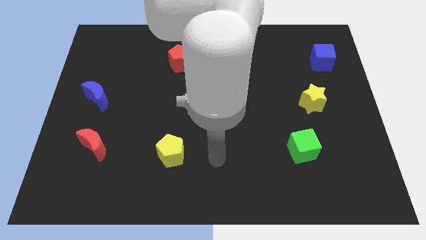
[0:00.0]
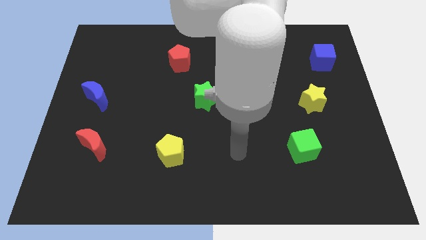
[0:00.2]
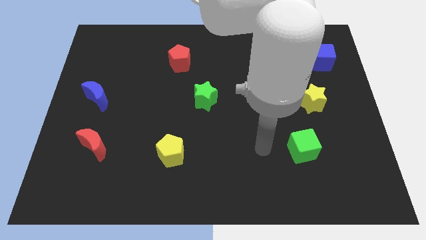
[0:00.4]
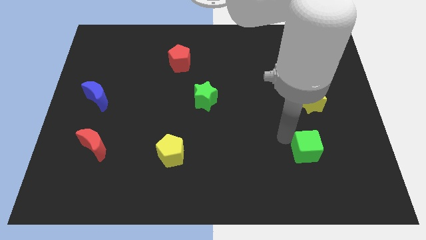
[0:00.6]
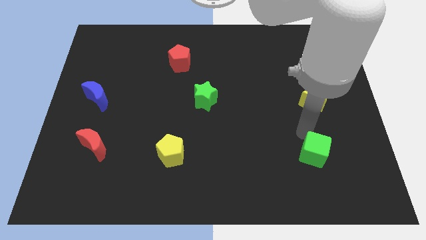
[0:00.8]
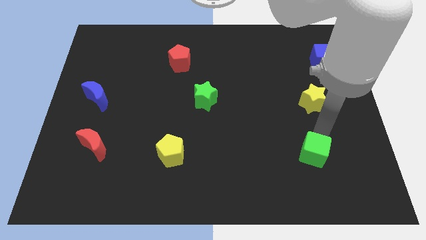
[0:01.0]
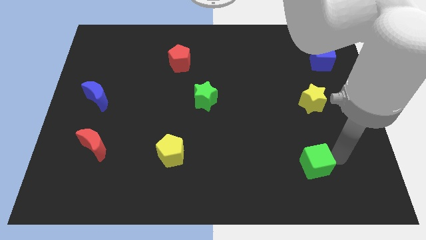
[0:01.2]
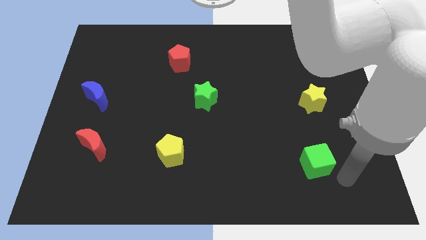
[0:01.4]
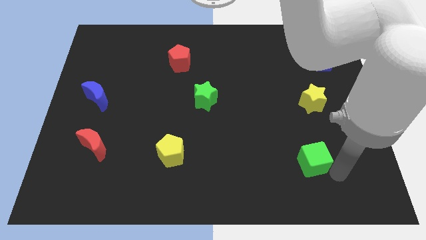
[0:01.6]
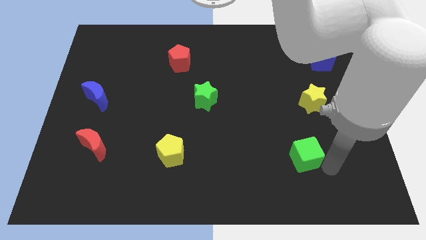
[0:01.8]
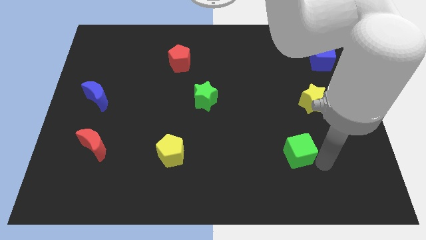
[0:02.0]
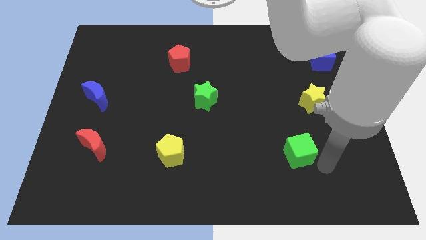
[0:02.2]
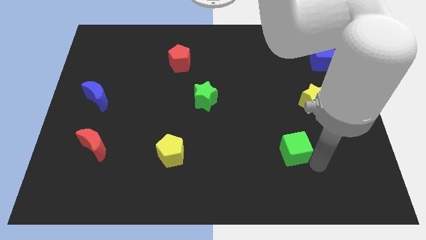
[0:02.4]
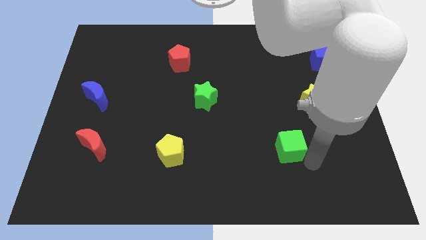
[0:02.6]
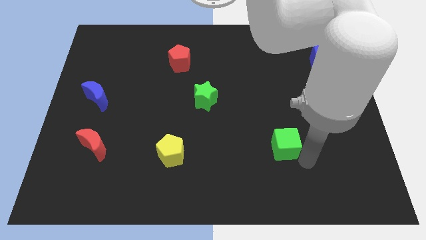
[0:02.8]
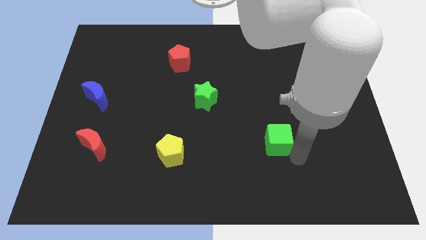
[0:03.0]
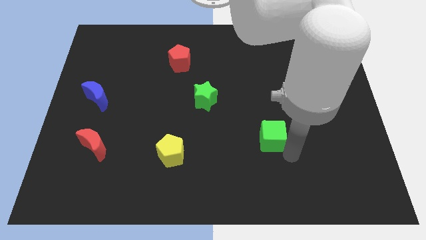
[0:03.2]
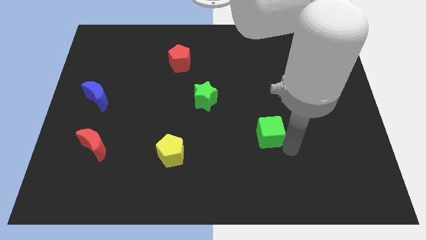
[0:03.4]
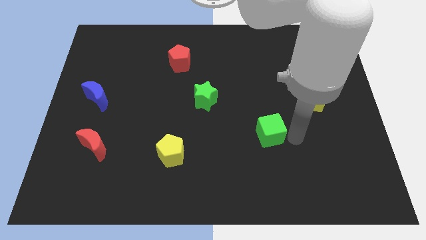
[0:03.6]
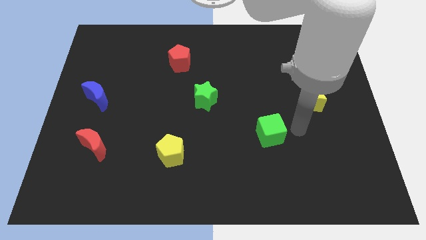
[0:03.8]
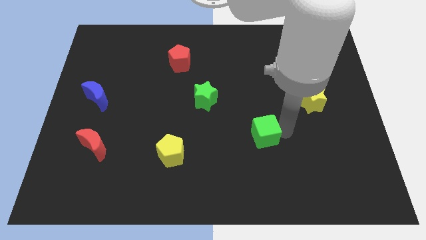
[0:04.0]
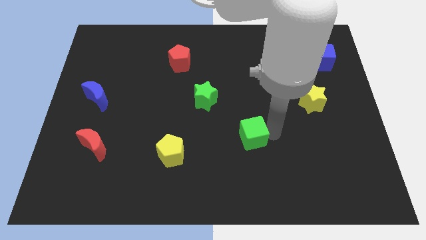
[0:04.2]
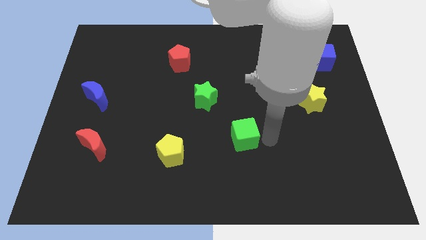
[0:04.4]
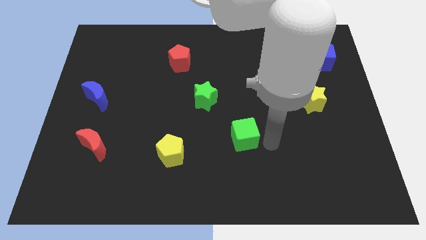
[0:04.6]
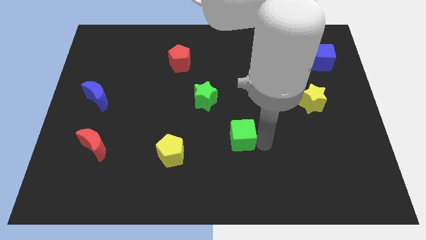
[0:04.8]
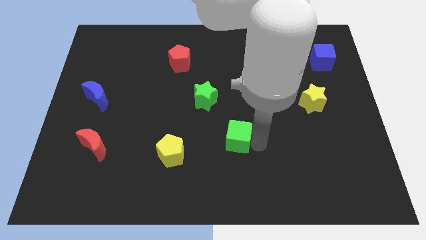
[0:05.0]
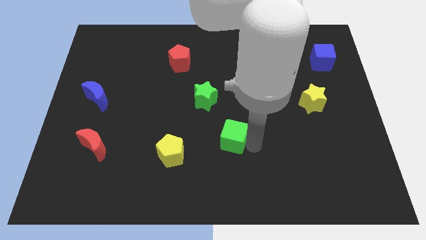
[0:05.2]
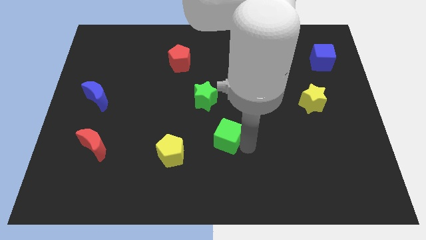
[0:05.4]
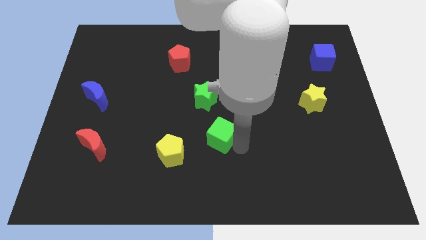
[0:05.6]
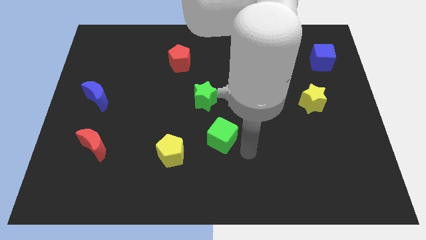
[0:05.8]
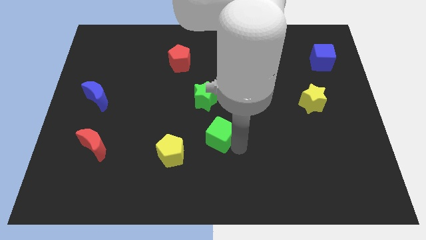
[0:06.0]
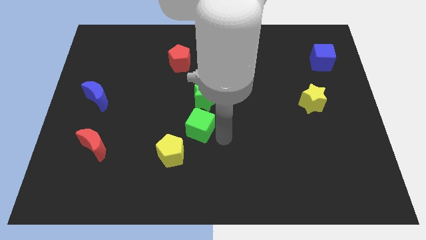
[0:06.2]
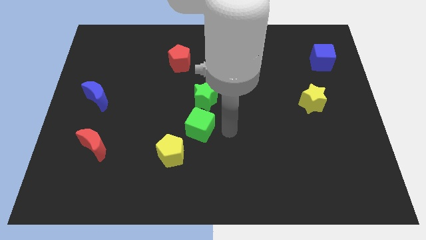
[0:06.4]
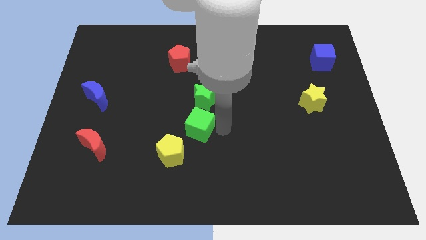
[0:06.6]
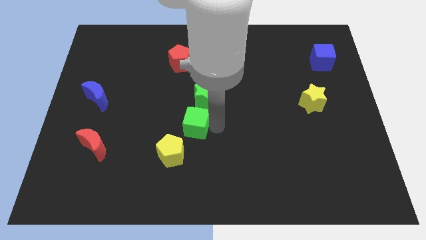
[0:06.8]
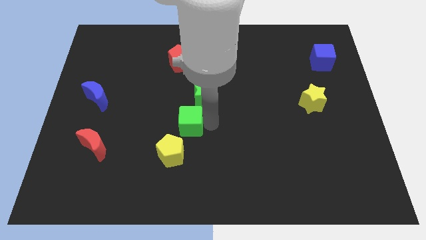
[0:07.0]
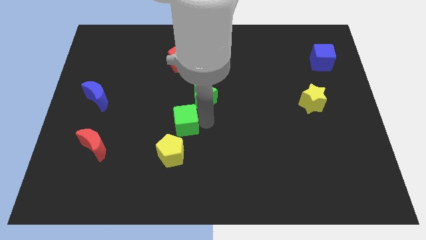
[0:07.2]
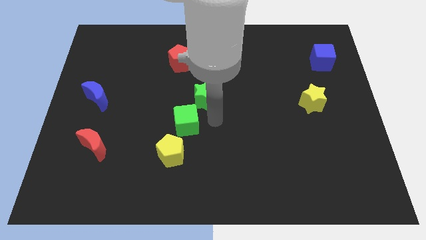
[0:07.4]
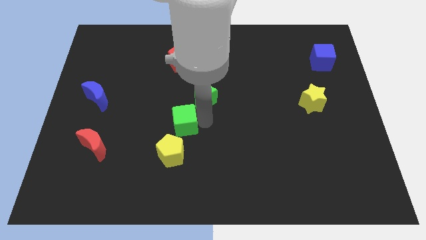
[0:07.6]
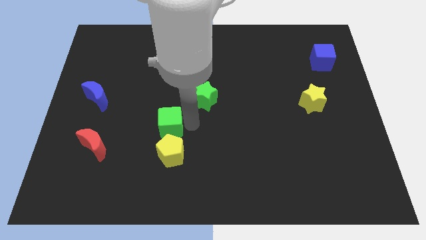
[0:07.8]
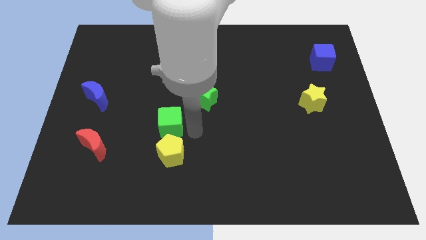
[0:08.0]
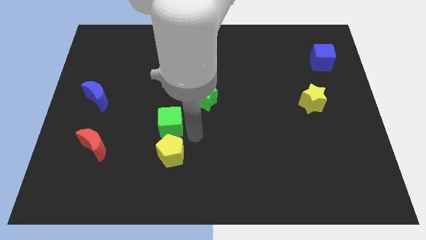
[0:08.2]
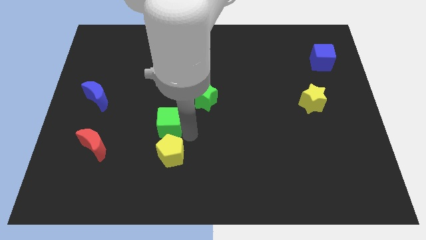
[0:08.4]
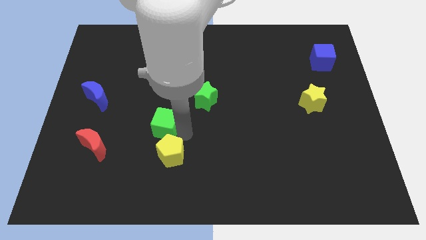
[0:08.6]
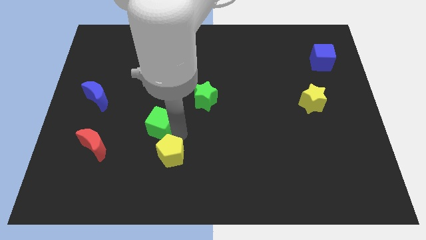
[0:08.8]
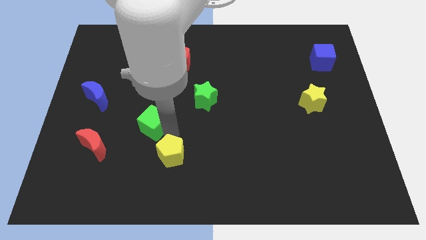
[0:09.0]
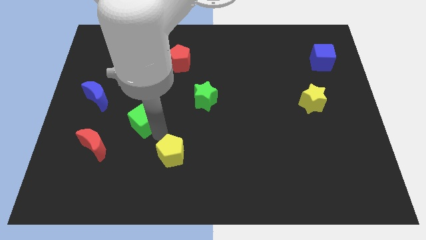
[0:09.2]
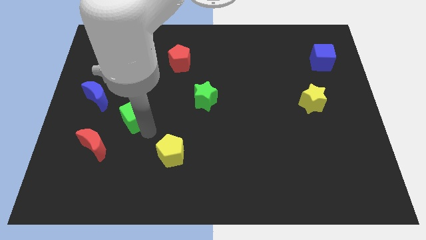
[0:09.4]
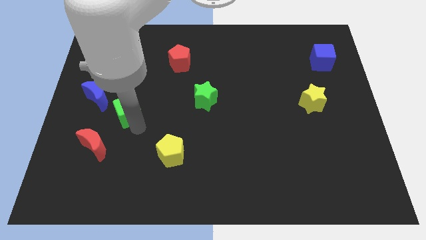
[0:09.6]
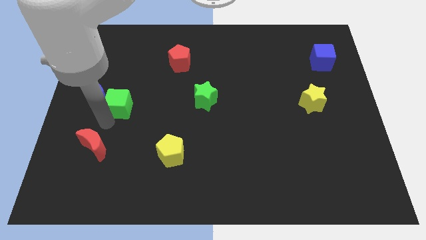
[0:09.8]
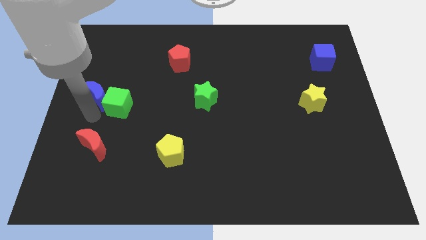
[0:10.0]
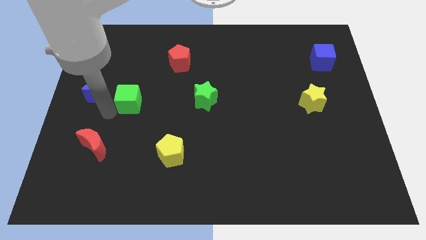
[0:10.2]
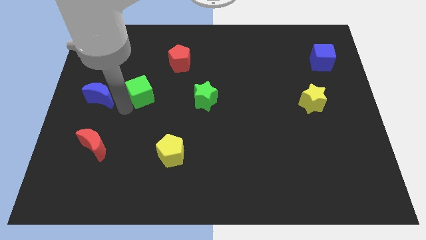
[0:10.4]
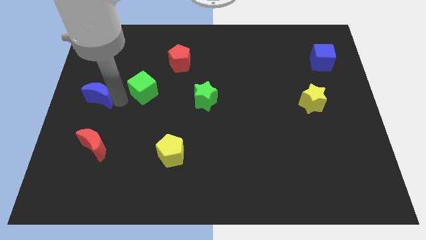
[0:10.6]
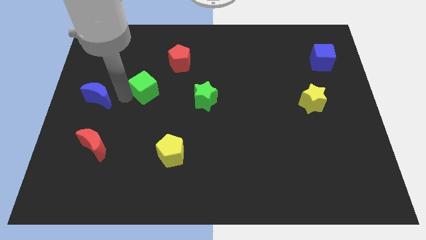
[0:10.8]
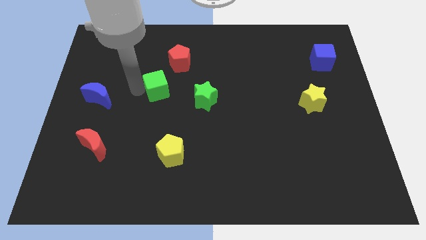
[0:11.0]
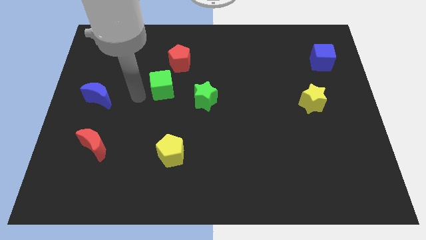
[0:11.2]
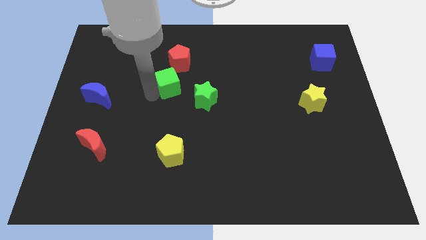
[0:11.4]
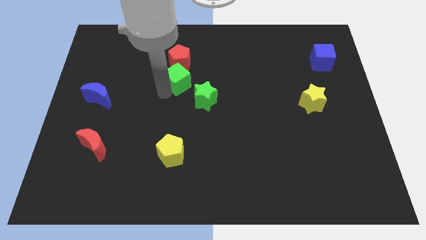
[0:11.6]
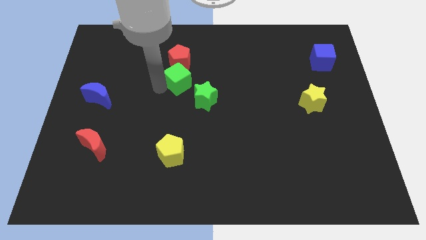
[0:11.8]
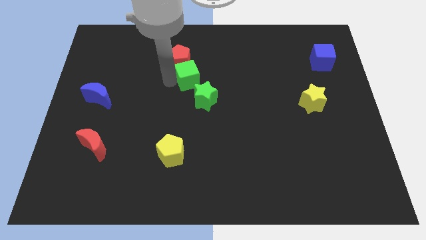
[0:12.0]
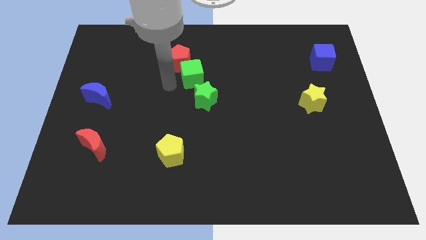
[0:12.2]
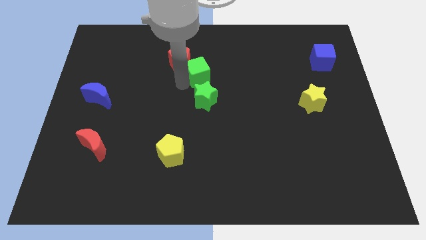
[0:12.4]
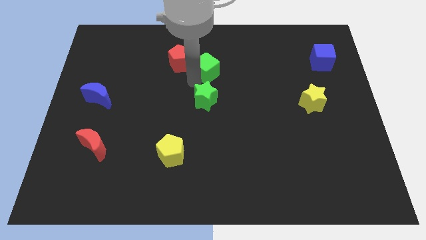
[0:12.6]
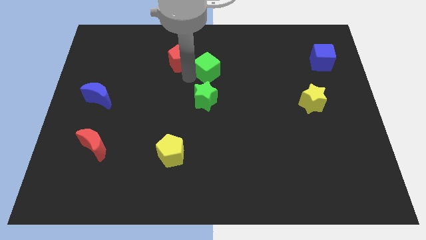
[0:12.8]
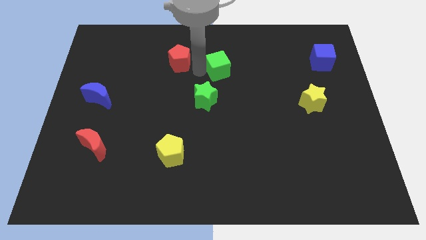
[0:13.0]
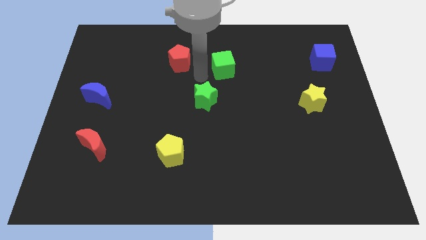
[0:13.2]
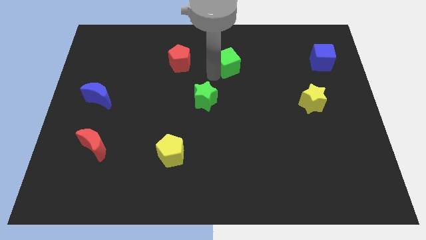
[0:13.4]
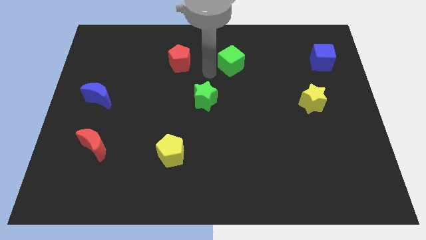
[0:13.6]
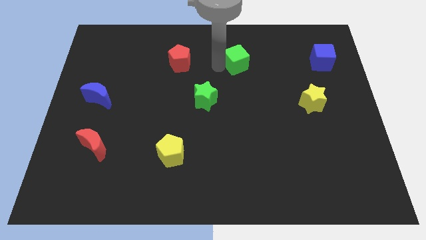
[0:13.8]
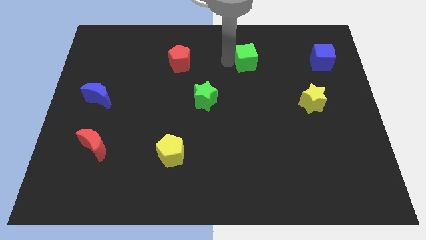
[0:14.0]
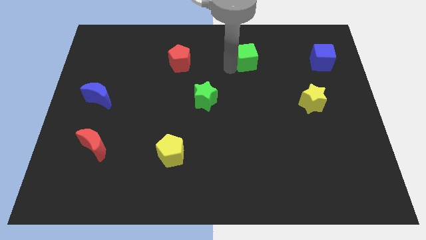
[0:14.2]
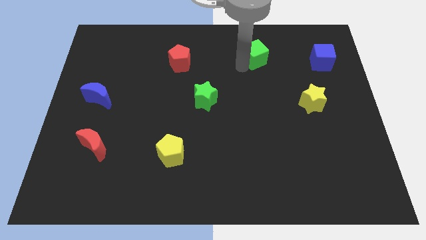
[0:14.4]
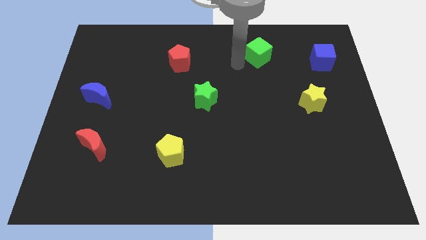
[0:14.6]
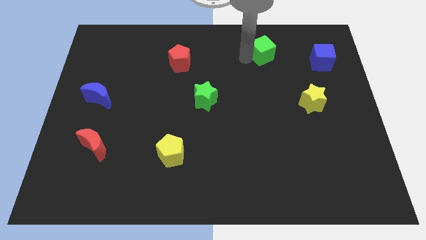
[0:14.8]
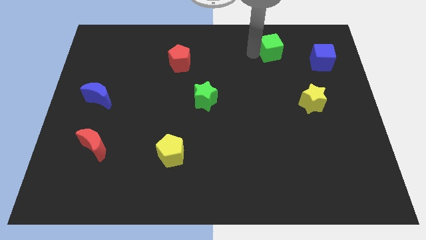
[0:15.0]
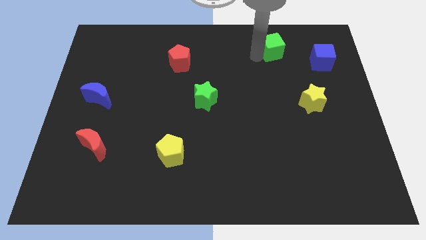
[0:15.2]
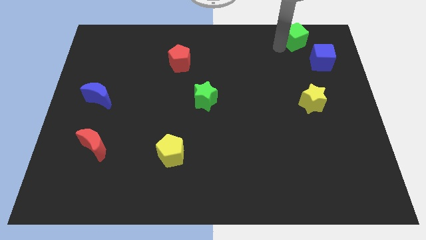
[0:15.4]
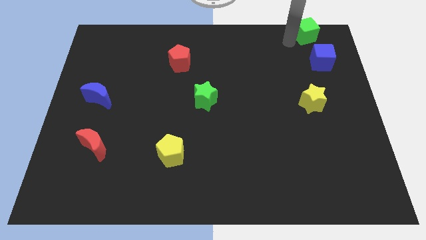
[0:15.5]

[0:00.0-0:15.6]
move the green cube to the top right
